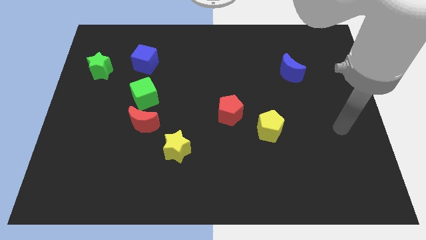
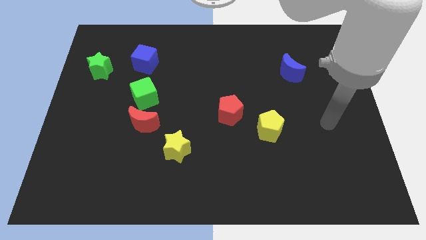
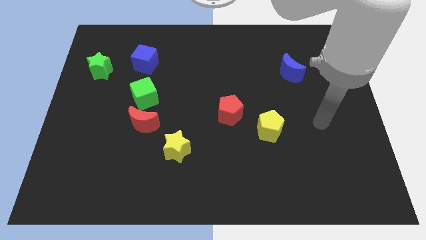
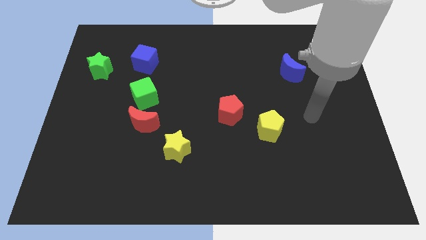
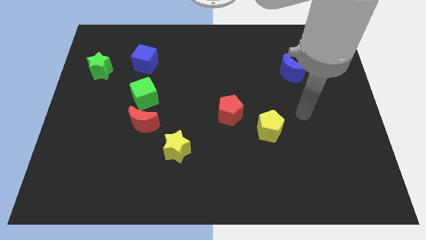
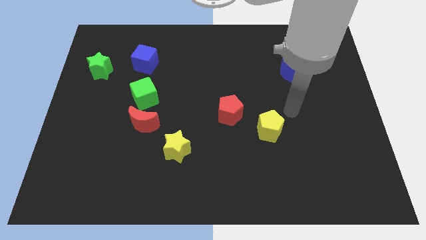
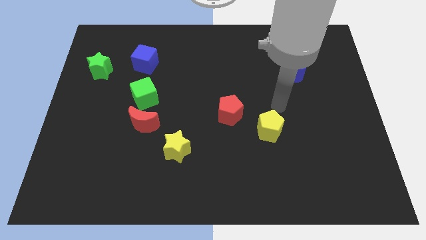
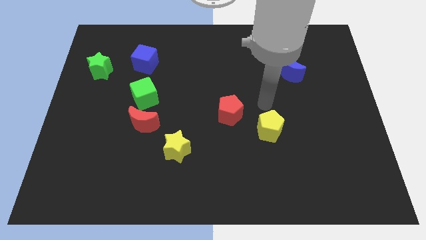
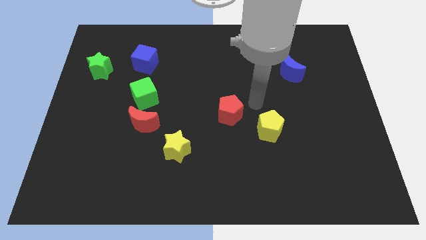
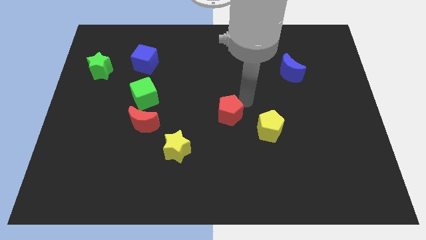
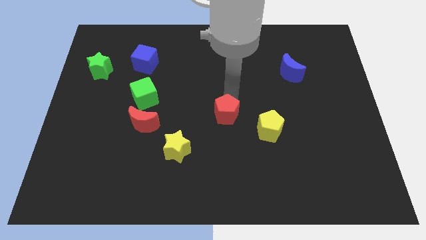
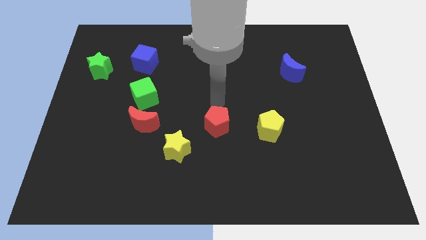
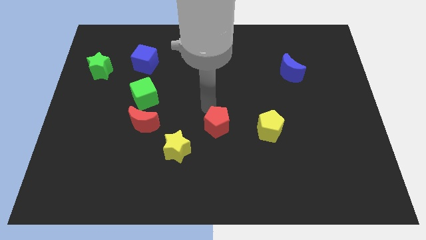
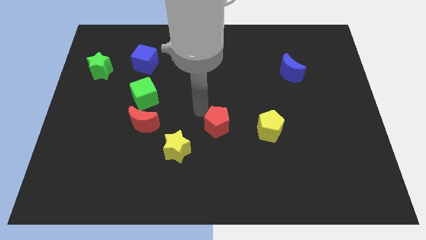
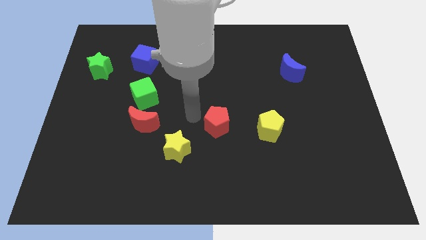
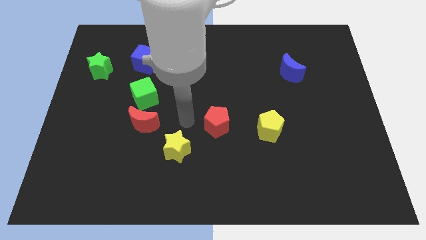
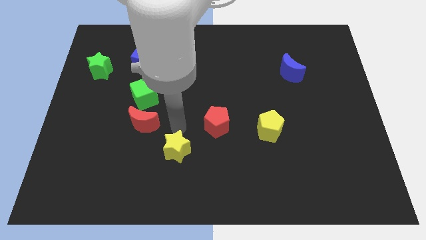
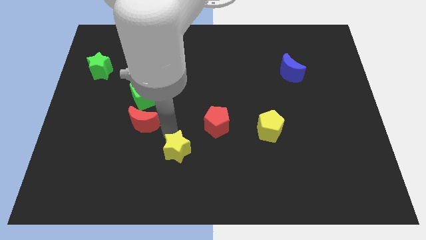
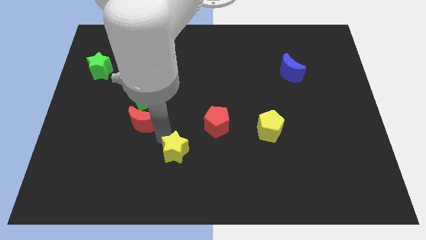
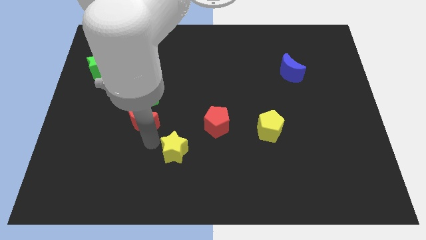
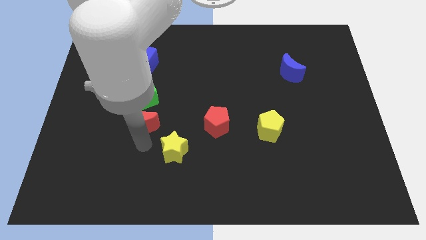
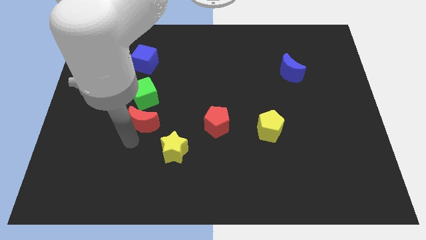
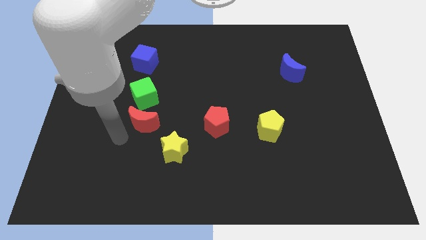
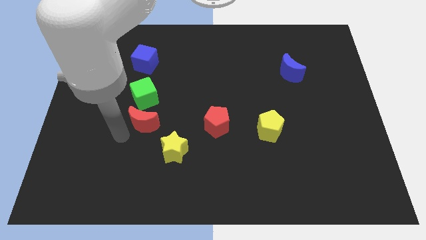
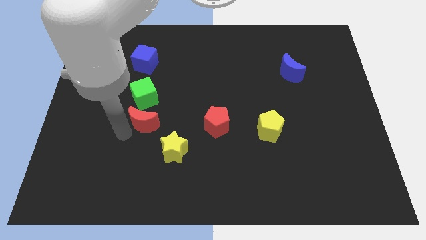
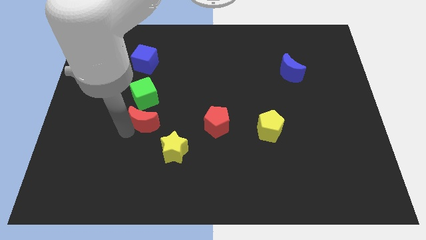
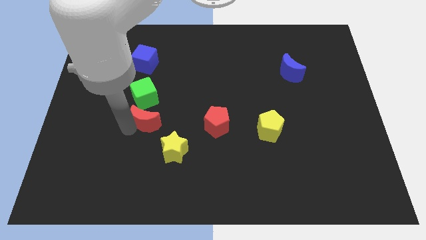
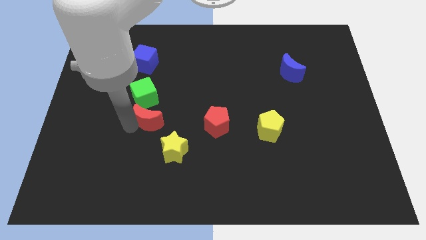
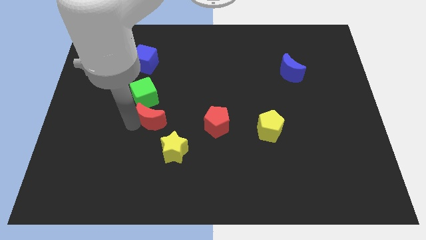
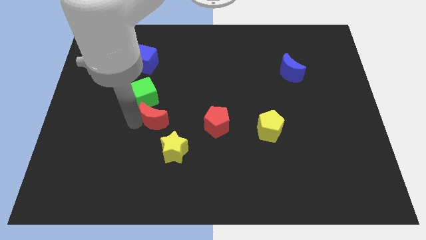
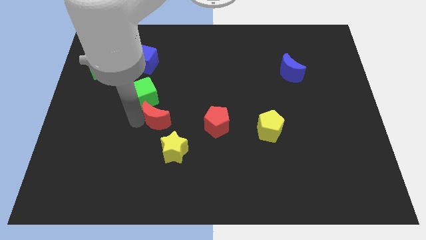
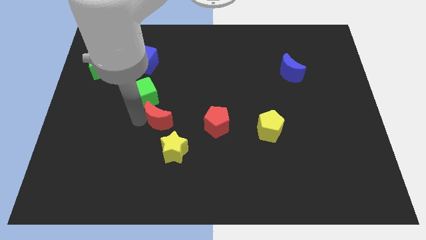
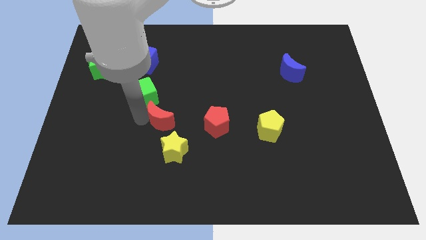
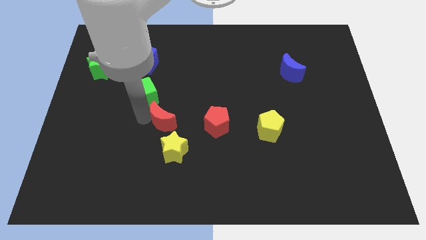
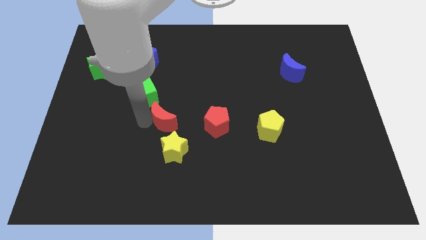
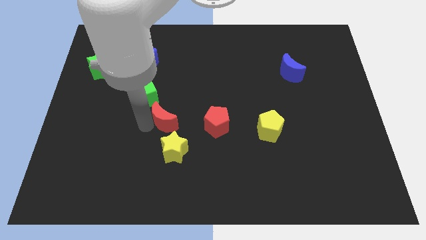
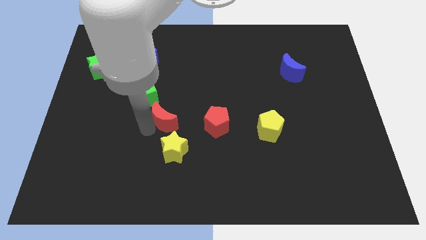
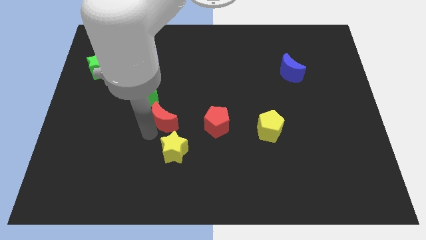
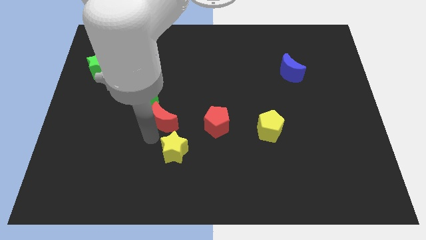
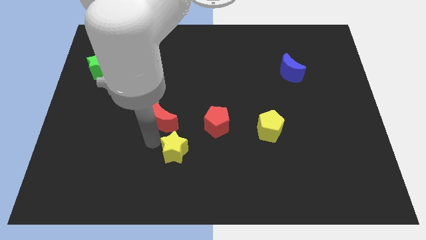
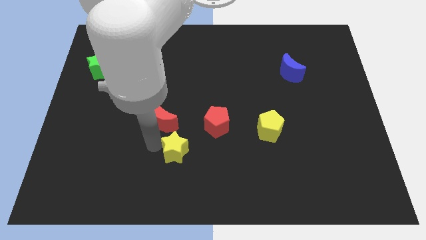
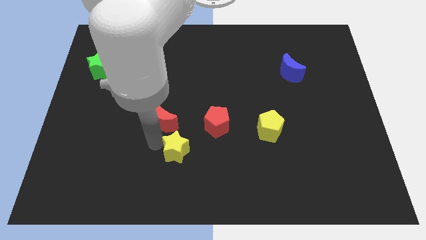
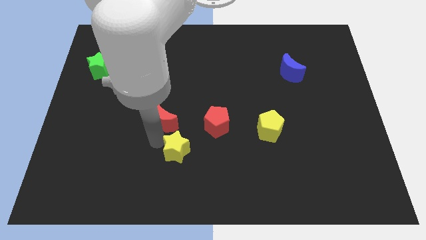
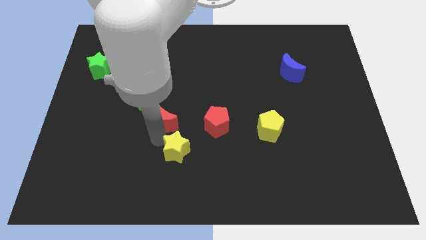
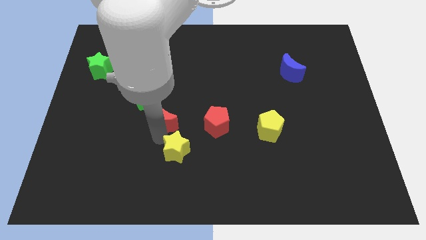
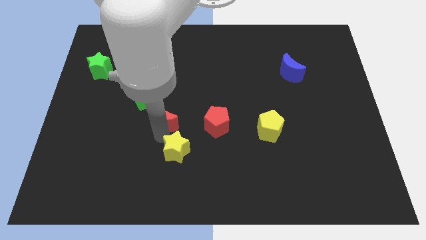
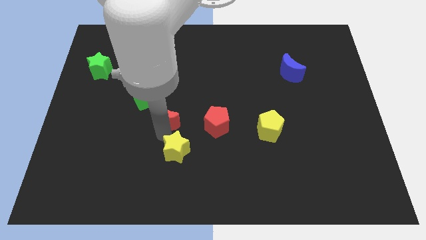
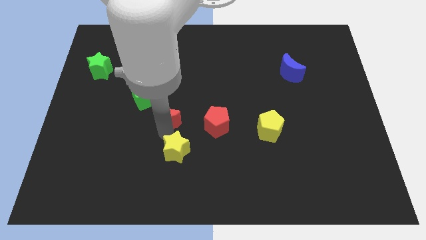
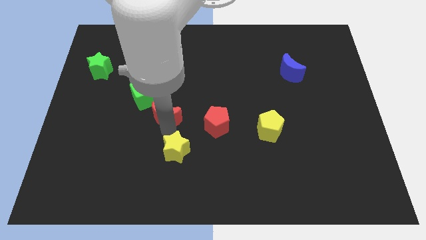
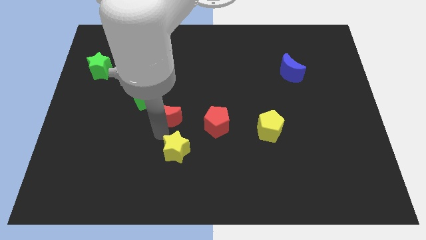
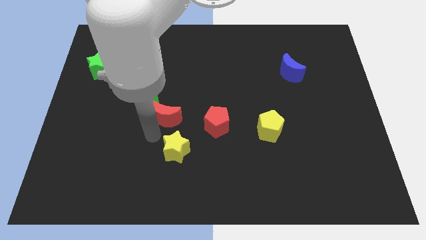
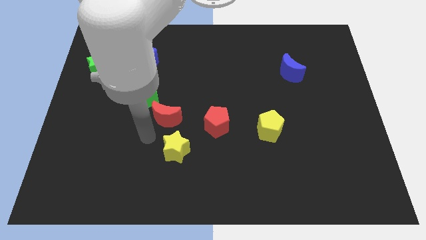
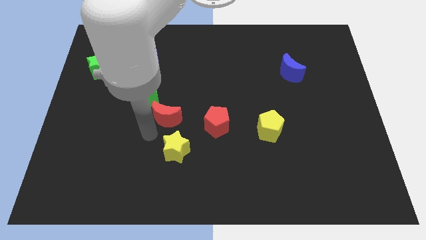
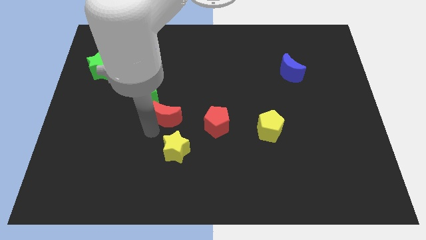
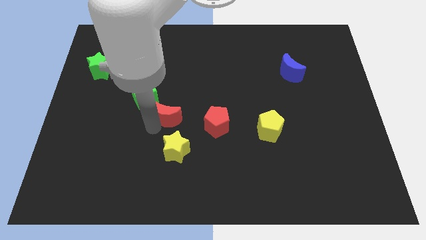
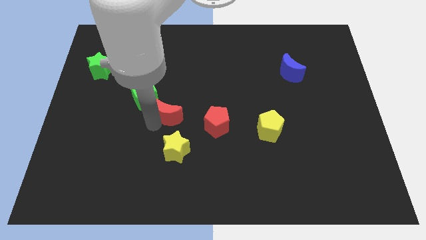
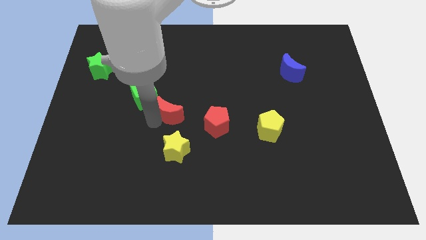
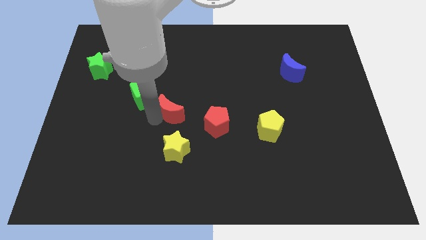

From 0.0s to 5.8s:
slide the red moon to the right side of the green cube

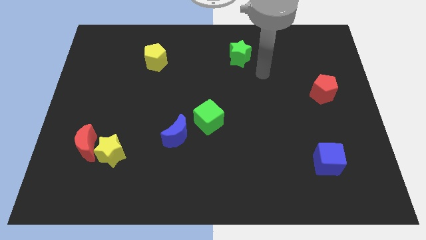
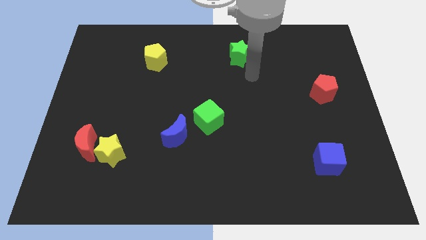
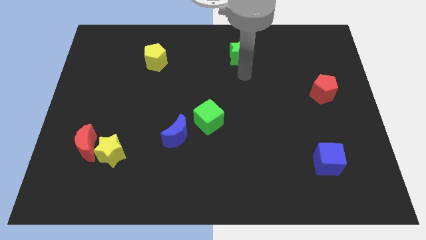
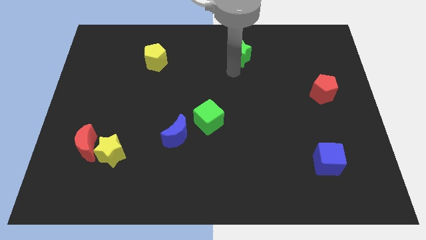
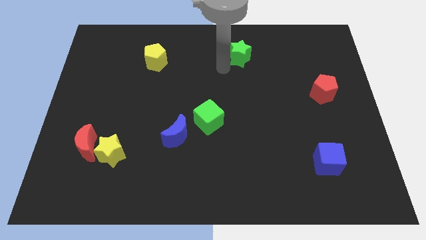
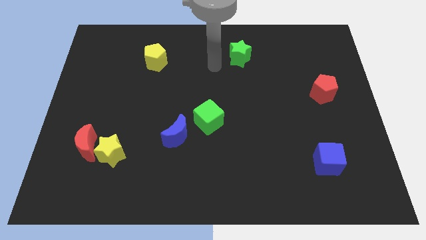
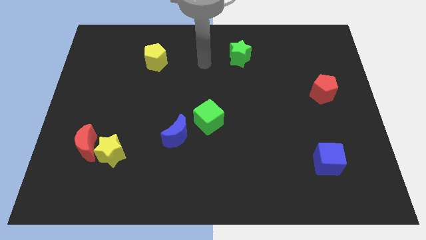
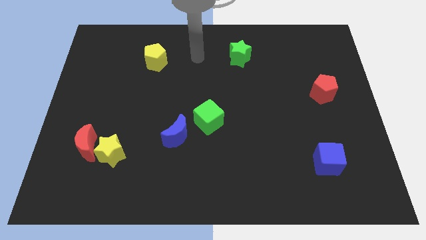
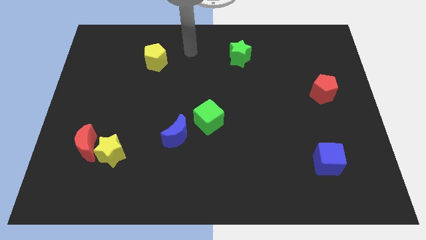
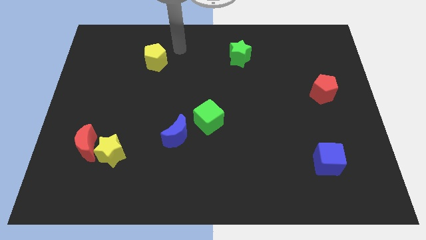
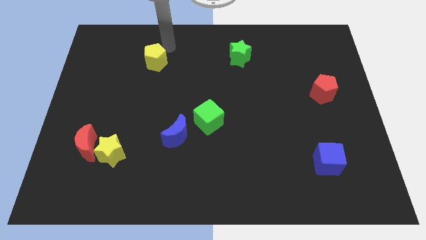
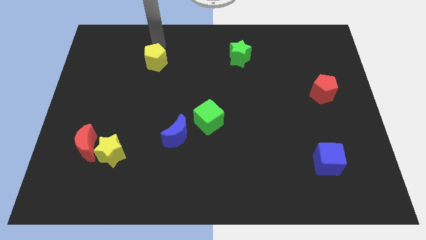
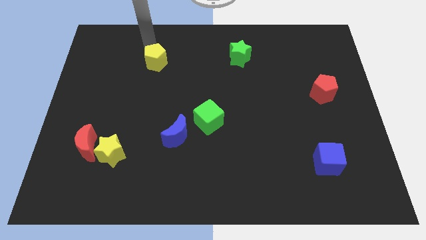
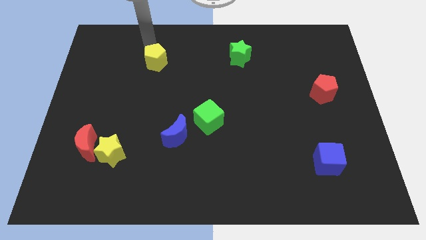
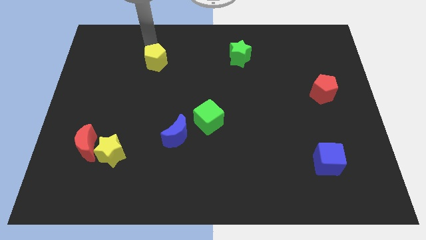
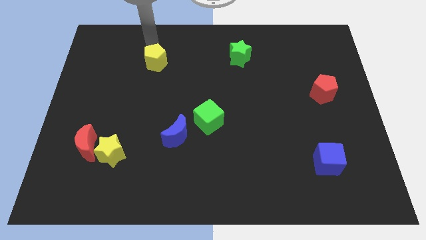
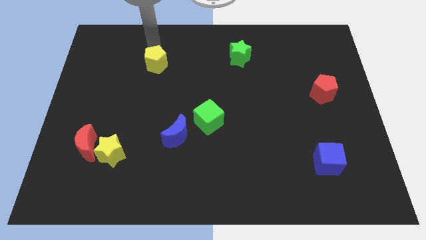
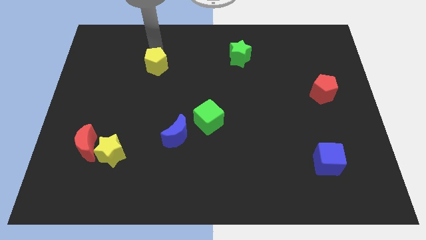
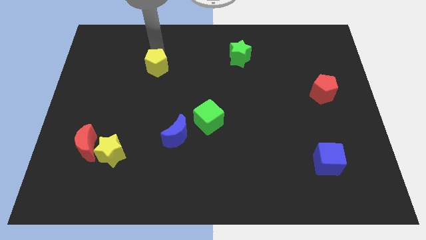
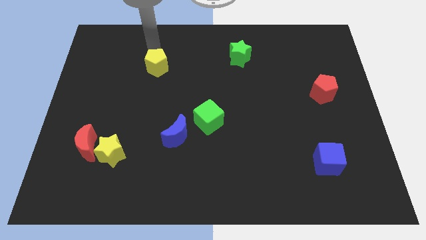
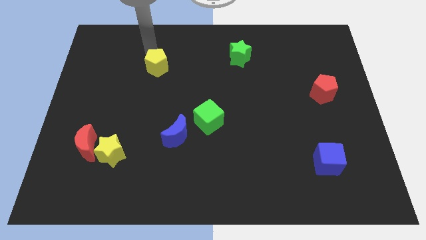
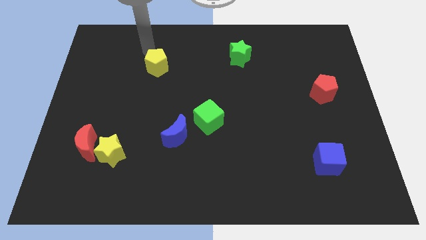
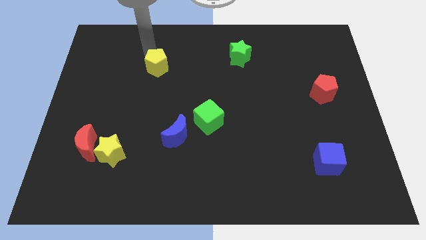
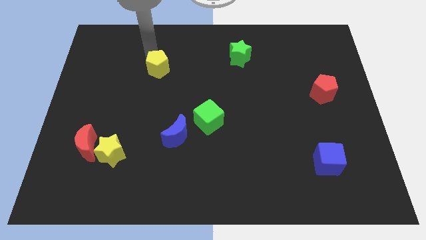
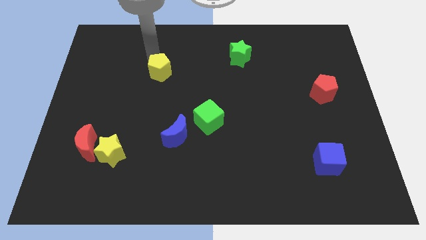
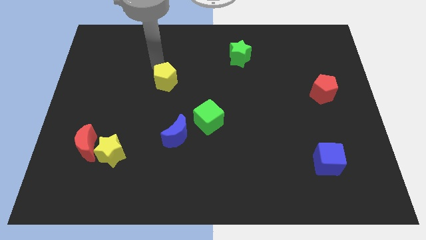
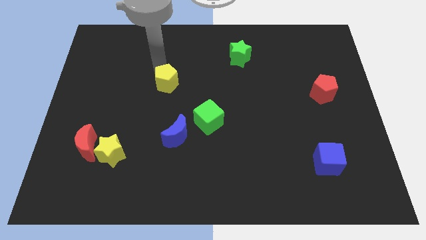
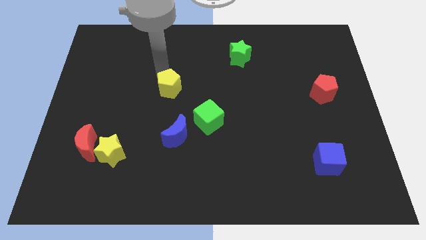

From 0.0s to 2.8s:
slide the yellow pentagon to the top of the blue moon
